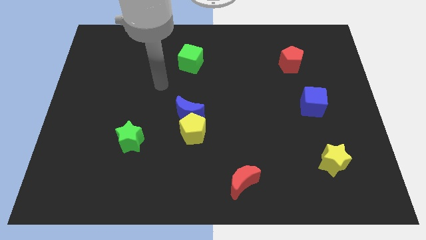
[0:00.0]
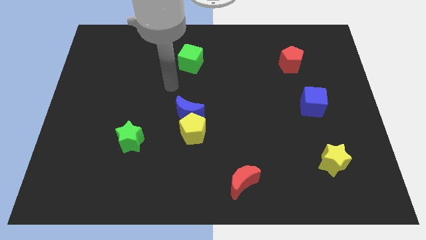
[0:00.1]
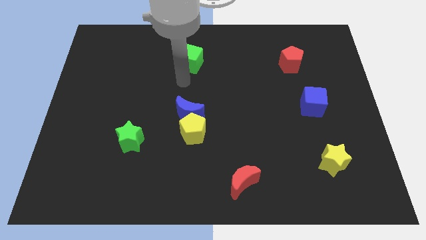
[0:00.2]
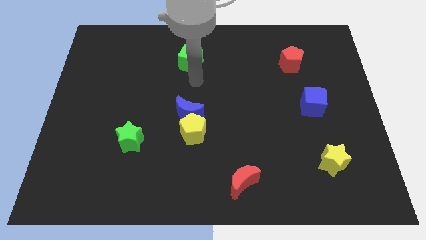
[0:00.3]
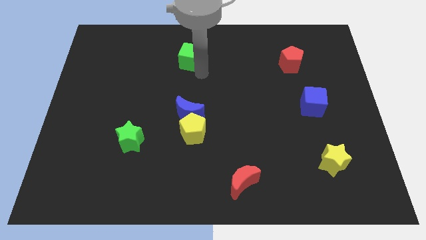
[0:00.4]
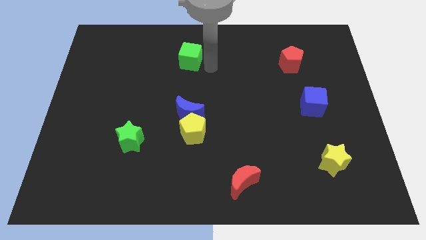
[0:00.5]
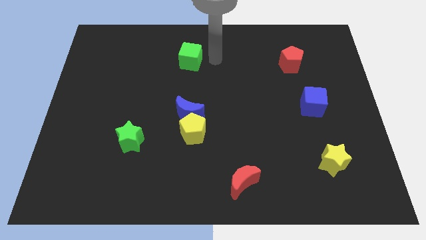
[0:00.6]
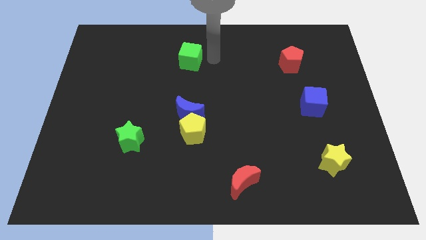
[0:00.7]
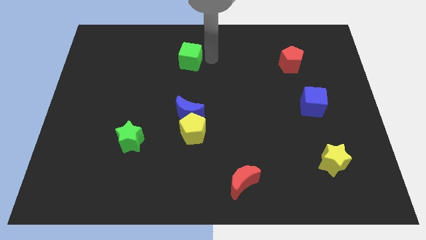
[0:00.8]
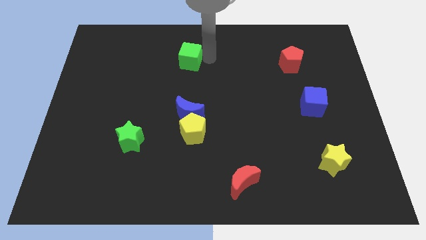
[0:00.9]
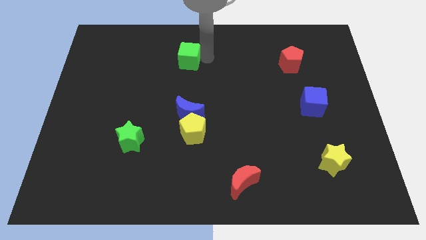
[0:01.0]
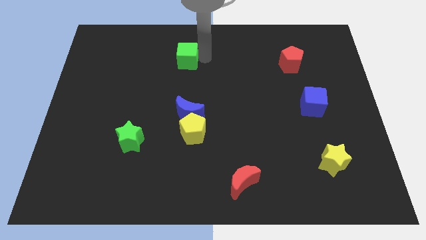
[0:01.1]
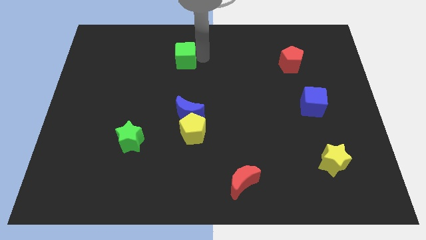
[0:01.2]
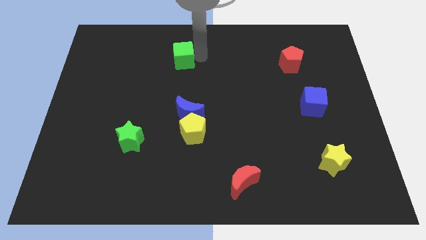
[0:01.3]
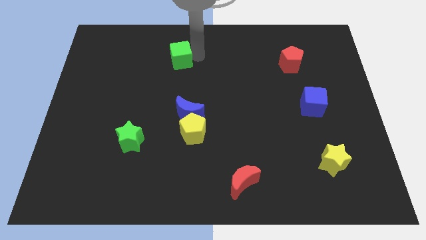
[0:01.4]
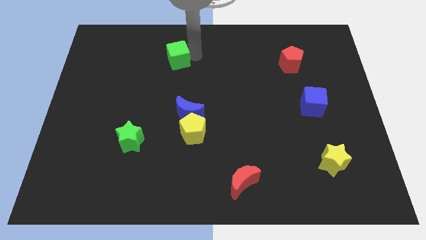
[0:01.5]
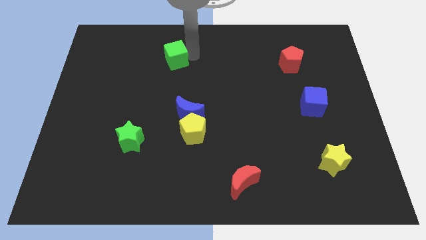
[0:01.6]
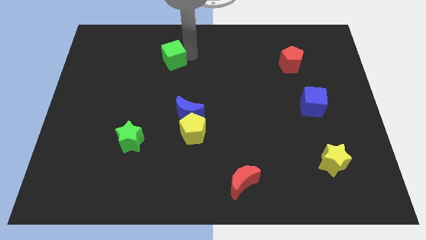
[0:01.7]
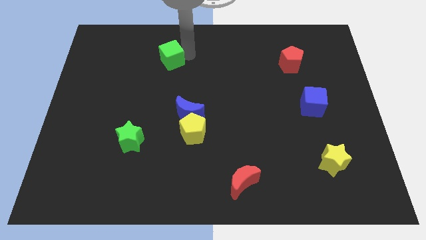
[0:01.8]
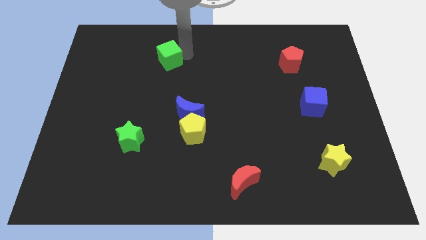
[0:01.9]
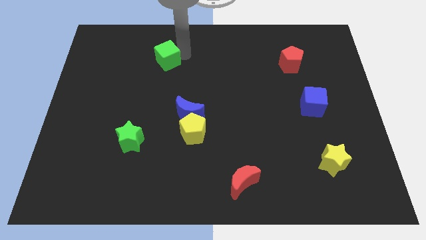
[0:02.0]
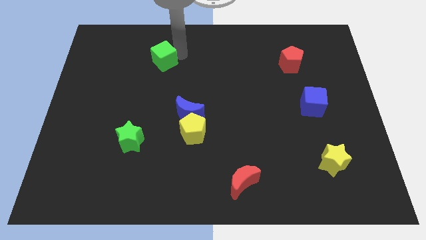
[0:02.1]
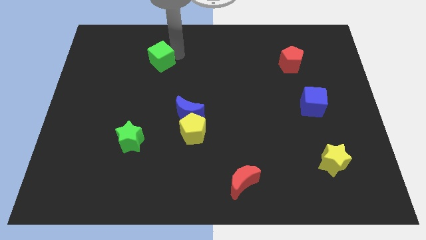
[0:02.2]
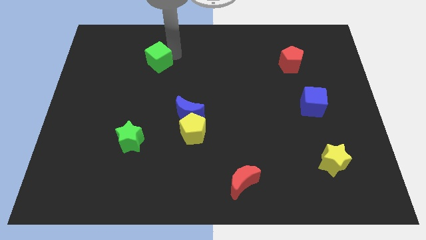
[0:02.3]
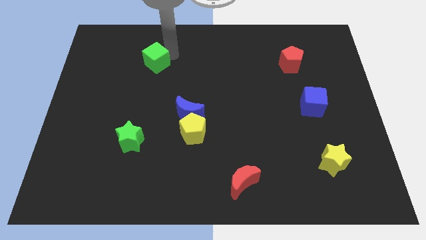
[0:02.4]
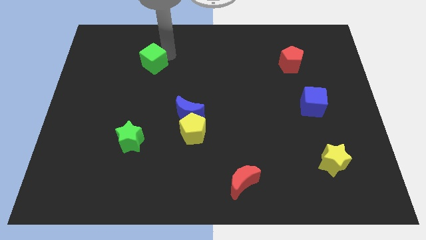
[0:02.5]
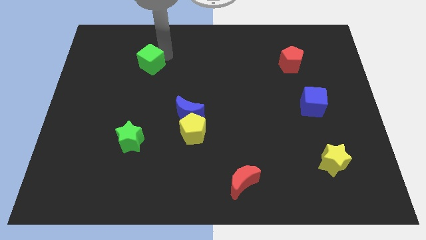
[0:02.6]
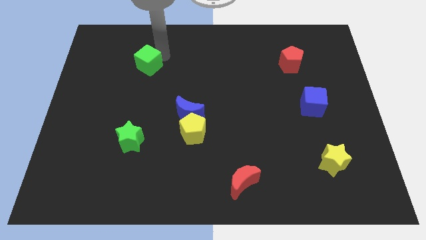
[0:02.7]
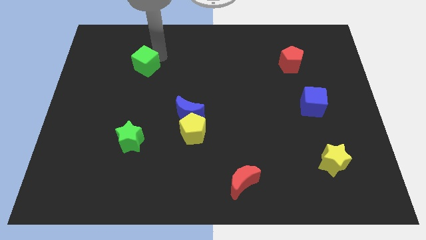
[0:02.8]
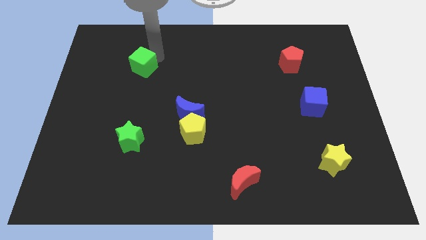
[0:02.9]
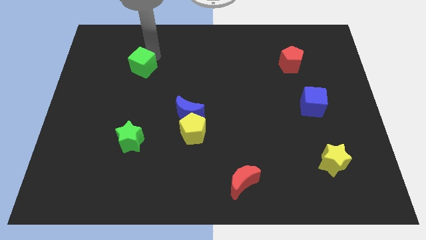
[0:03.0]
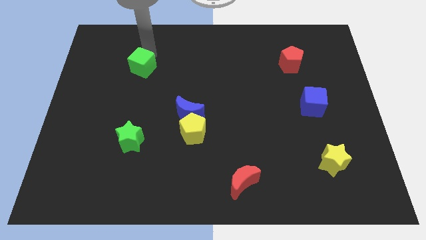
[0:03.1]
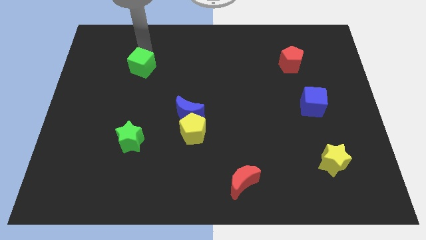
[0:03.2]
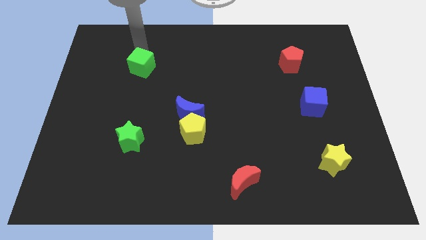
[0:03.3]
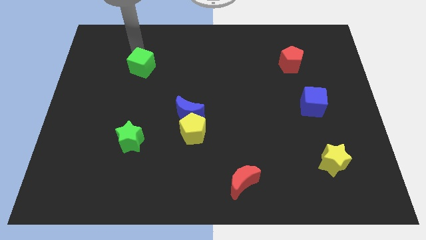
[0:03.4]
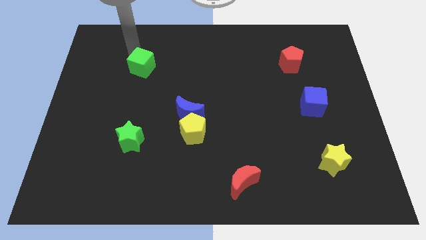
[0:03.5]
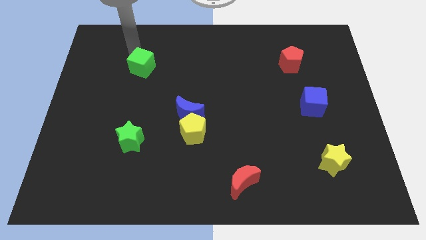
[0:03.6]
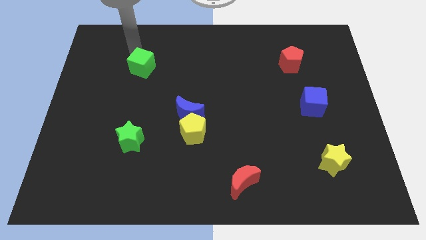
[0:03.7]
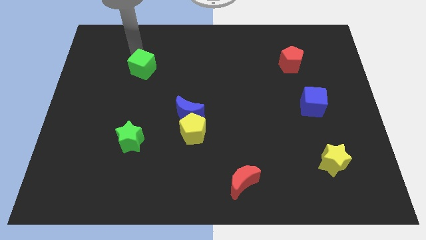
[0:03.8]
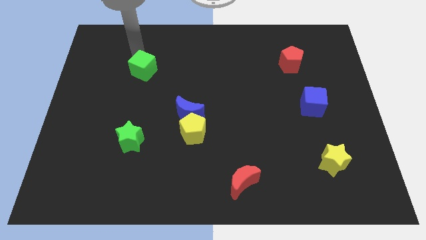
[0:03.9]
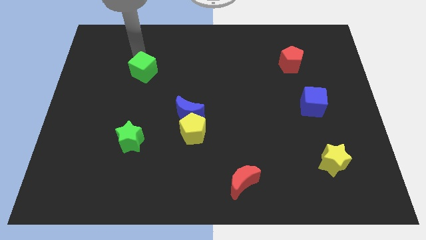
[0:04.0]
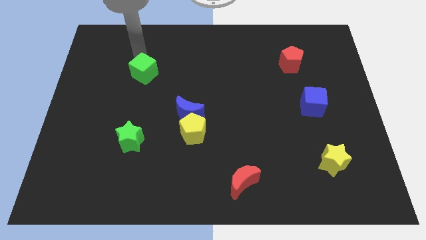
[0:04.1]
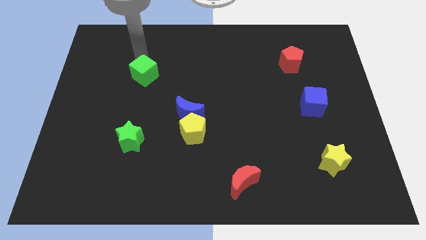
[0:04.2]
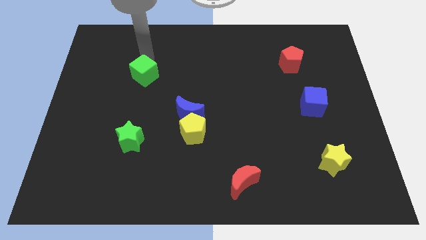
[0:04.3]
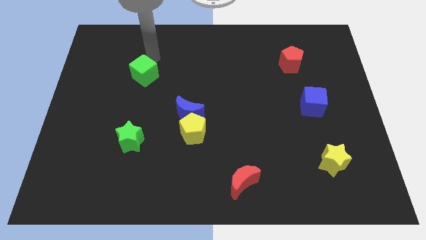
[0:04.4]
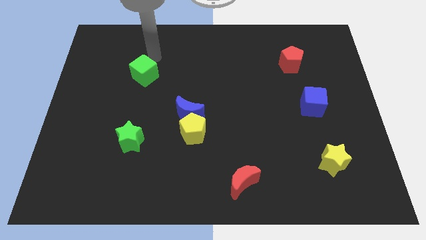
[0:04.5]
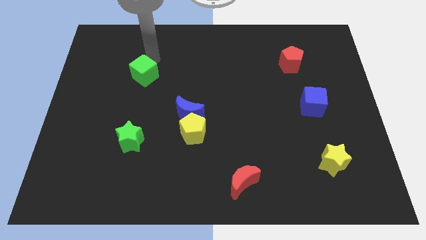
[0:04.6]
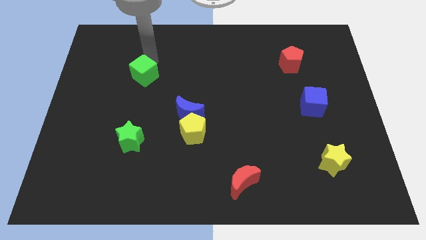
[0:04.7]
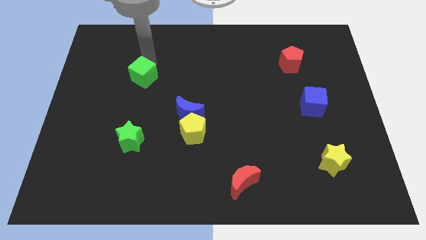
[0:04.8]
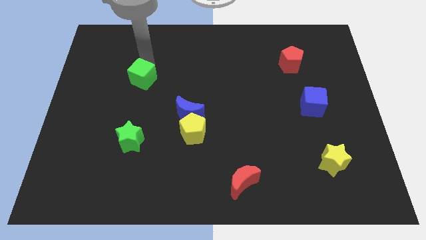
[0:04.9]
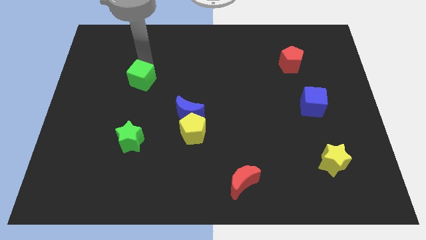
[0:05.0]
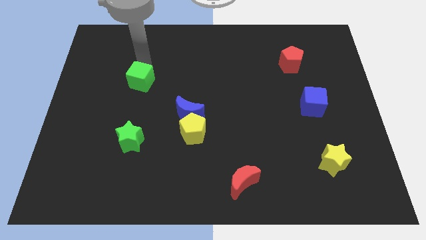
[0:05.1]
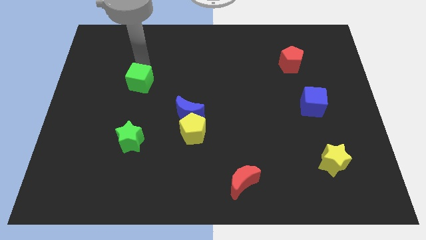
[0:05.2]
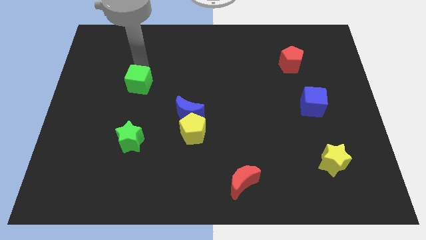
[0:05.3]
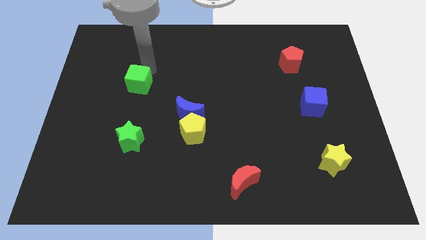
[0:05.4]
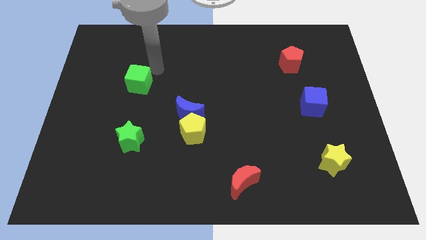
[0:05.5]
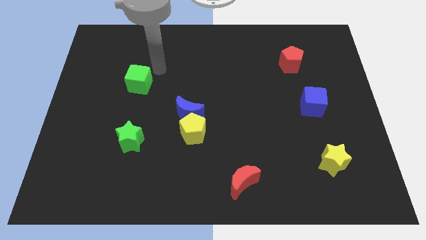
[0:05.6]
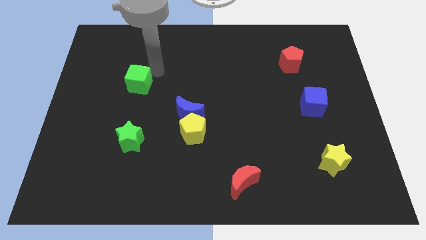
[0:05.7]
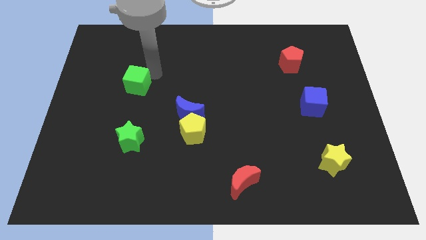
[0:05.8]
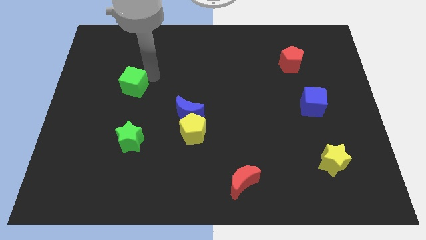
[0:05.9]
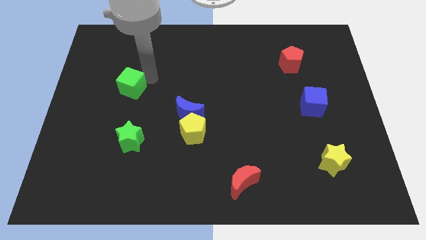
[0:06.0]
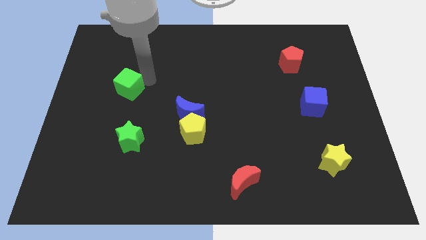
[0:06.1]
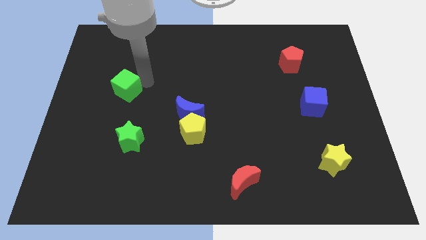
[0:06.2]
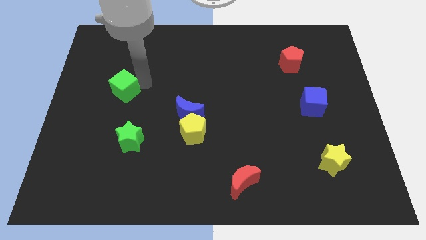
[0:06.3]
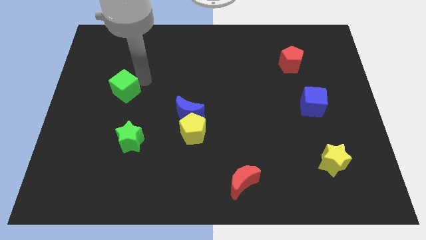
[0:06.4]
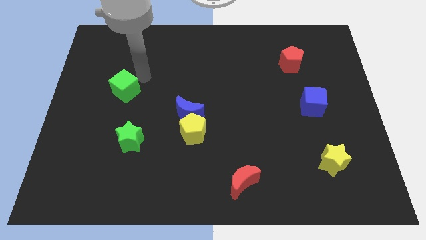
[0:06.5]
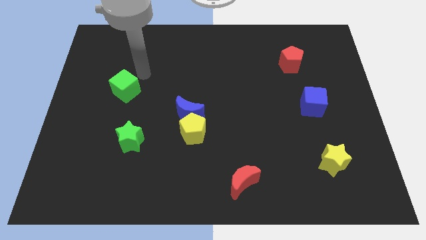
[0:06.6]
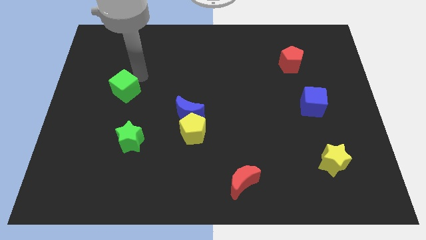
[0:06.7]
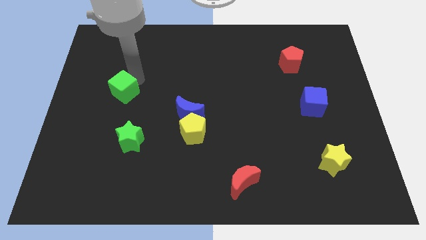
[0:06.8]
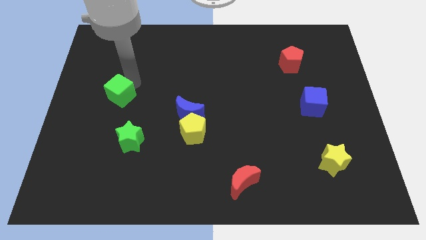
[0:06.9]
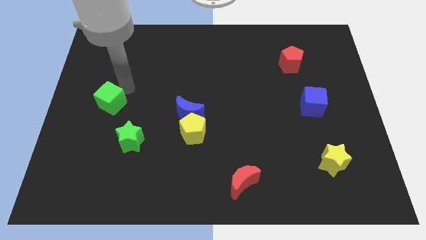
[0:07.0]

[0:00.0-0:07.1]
slide the green cube diagonally down and to the left

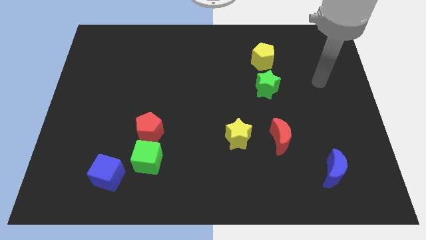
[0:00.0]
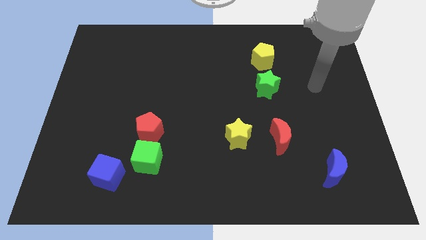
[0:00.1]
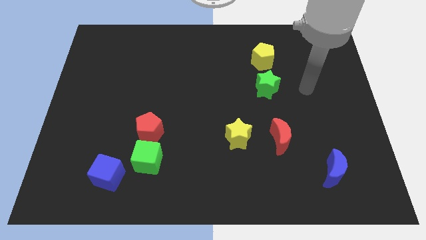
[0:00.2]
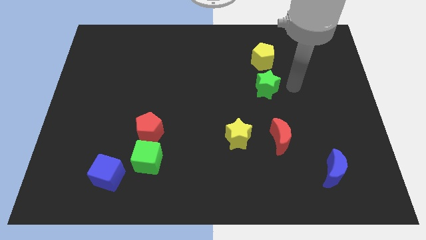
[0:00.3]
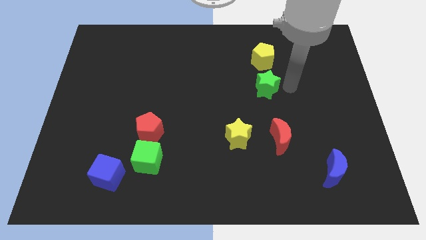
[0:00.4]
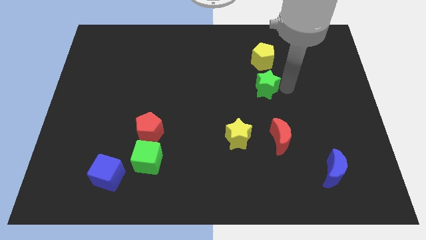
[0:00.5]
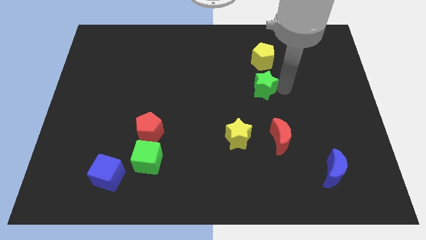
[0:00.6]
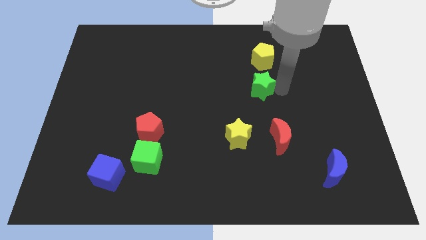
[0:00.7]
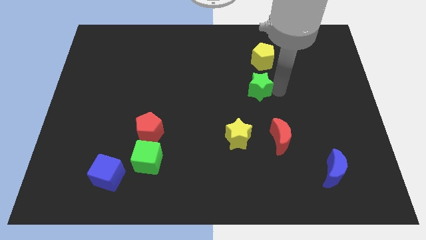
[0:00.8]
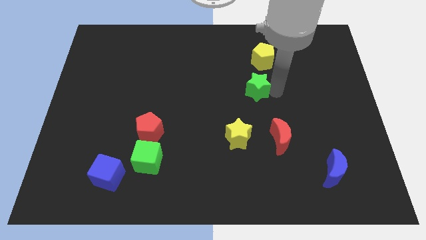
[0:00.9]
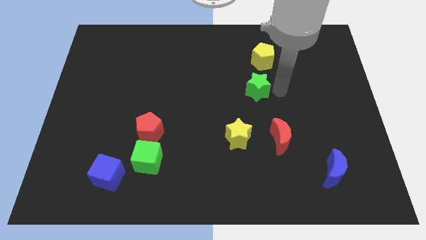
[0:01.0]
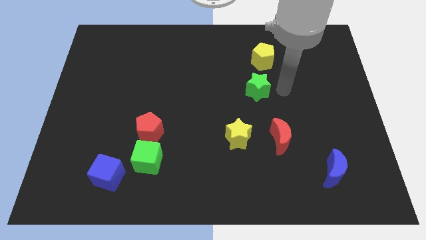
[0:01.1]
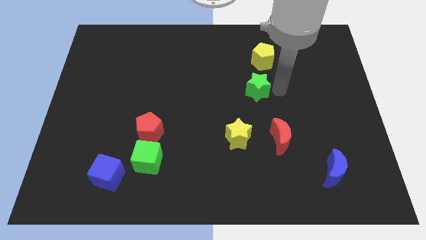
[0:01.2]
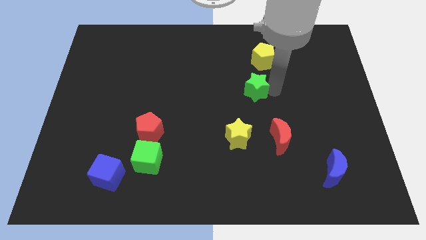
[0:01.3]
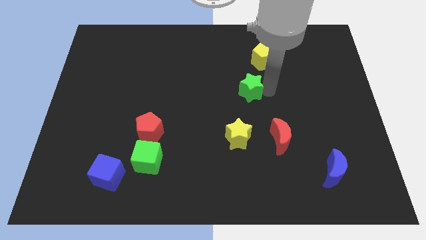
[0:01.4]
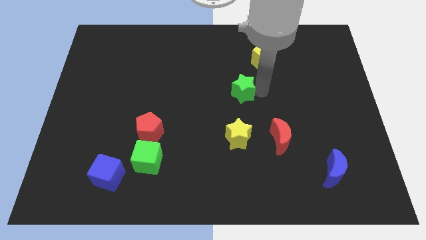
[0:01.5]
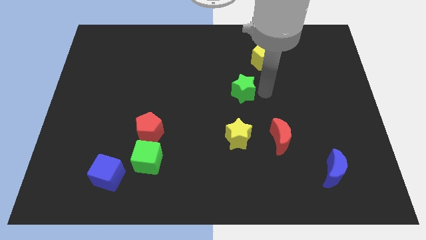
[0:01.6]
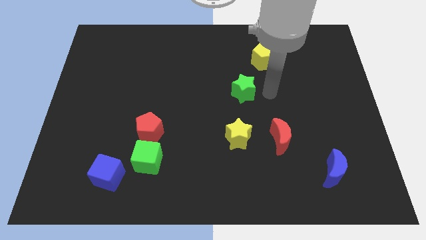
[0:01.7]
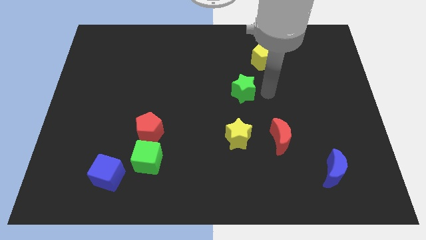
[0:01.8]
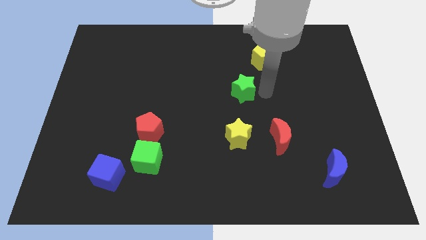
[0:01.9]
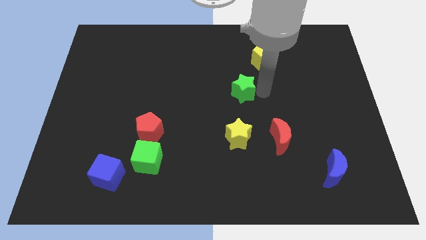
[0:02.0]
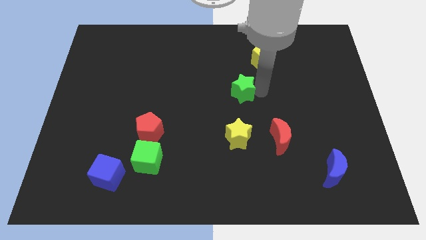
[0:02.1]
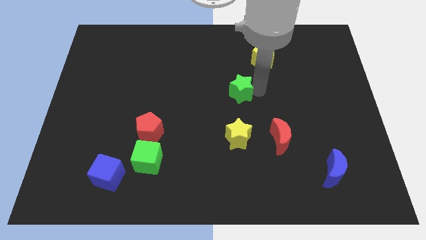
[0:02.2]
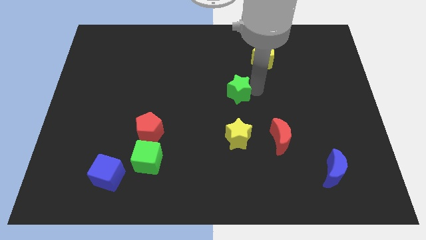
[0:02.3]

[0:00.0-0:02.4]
push the green star to the left slightly
